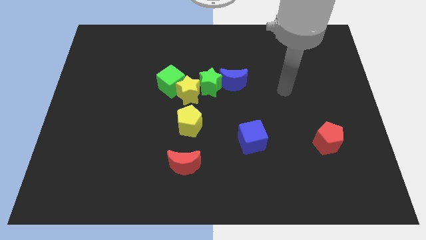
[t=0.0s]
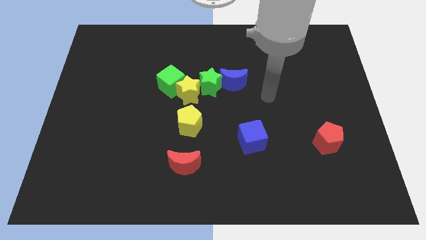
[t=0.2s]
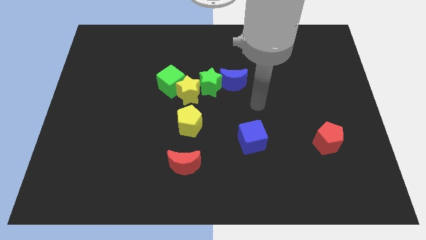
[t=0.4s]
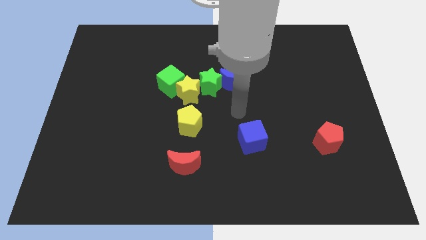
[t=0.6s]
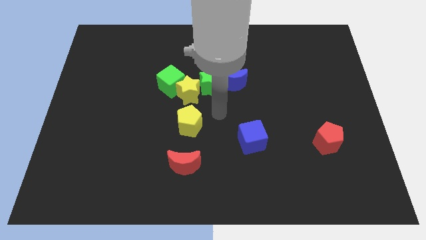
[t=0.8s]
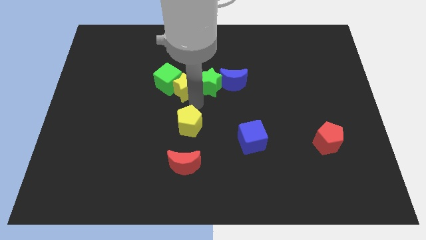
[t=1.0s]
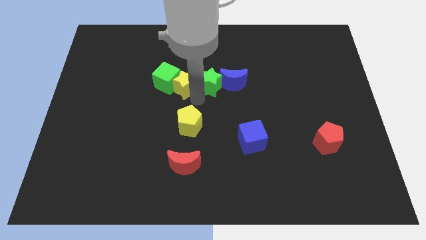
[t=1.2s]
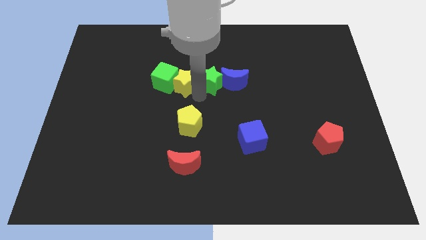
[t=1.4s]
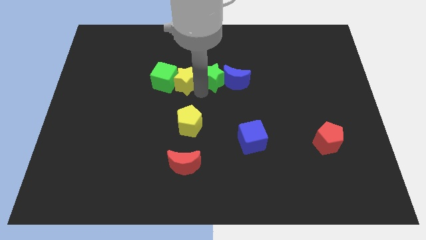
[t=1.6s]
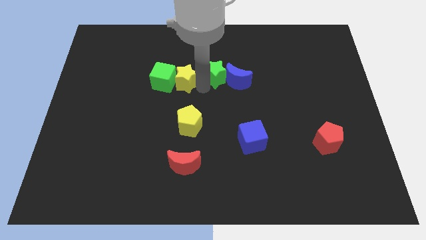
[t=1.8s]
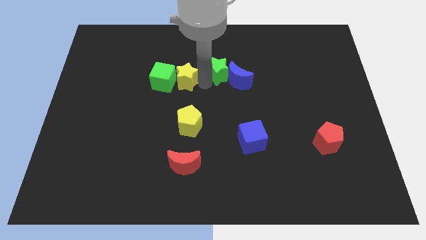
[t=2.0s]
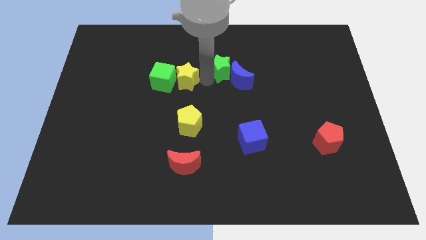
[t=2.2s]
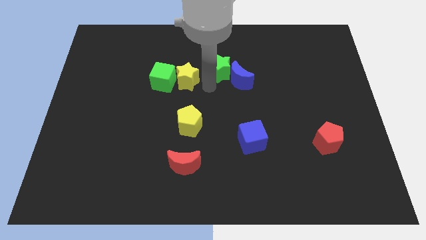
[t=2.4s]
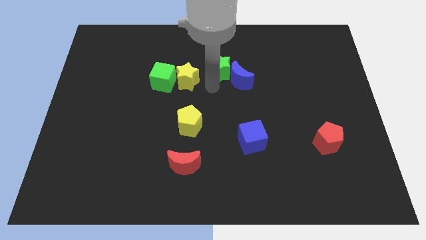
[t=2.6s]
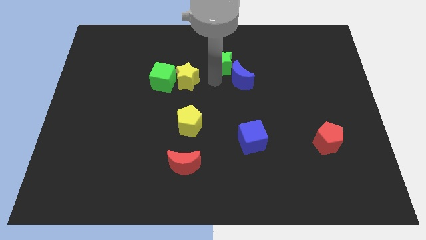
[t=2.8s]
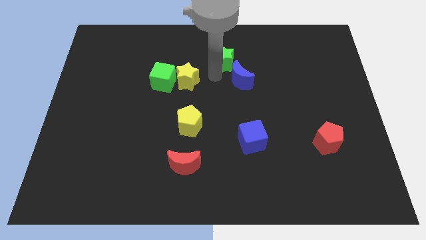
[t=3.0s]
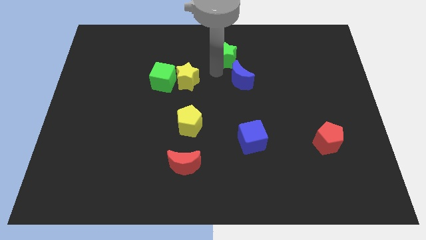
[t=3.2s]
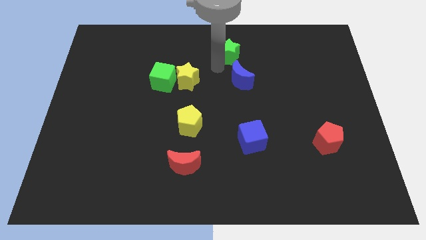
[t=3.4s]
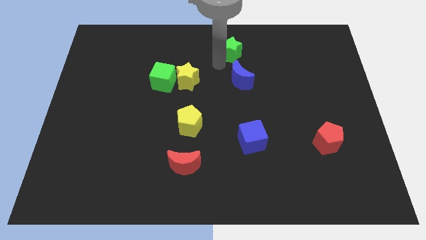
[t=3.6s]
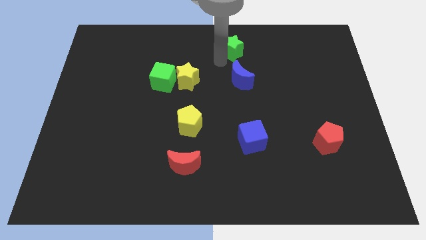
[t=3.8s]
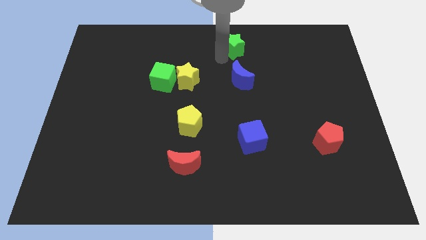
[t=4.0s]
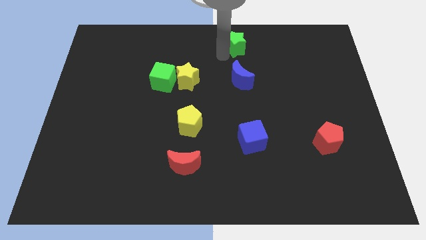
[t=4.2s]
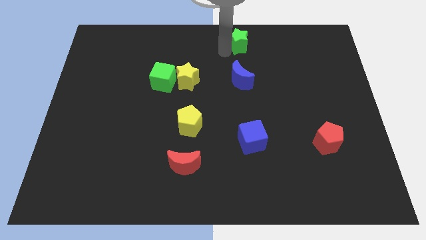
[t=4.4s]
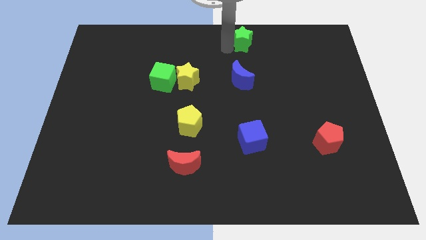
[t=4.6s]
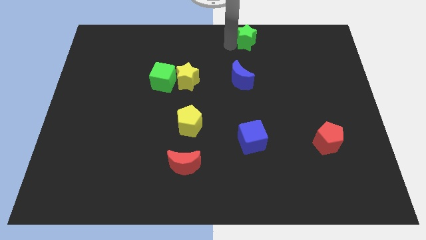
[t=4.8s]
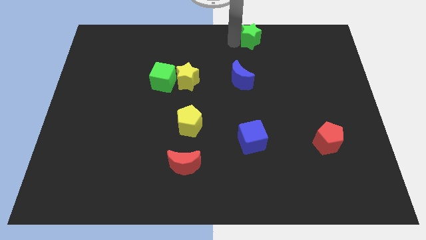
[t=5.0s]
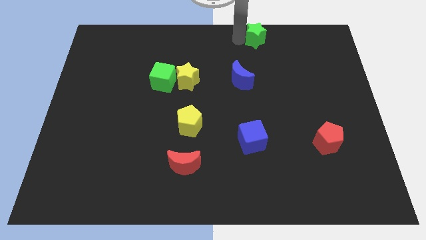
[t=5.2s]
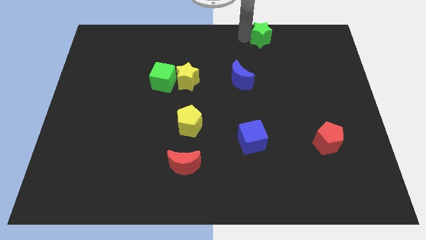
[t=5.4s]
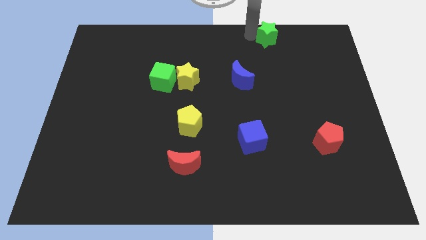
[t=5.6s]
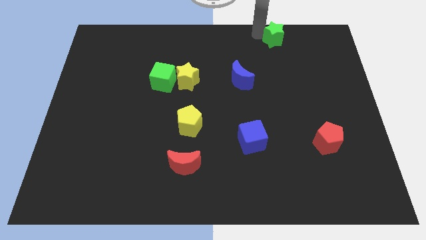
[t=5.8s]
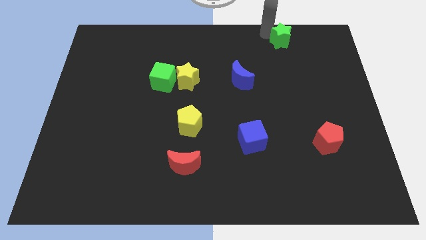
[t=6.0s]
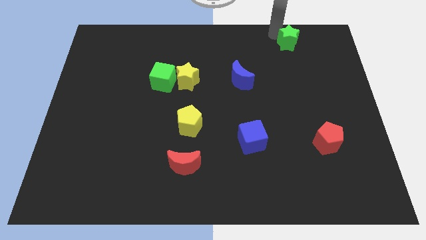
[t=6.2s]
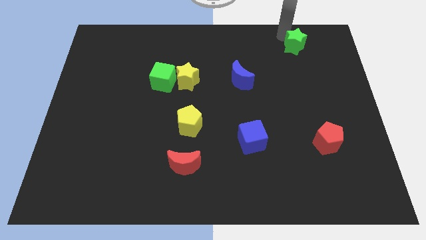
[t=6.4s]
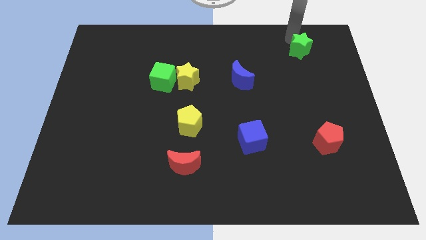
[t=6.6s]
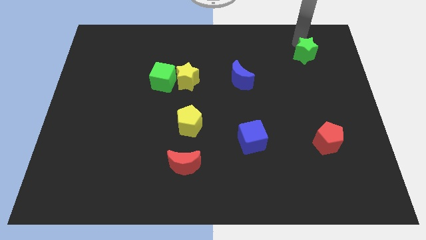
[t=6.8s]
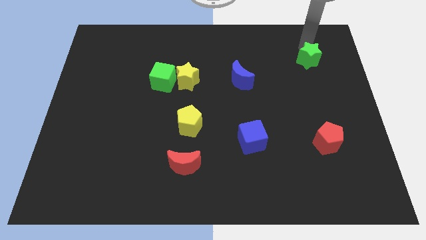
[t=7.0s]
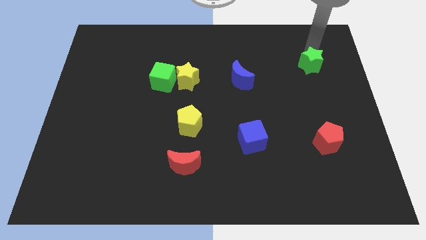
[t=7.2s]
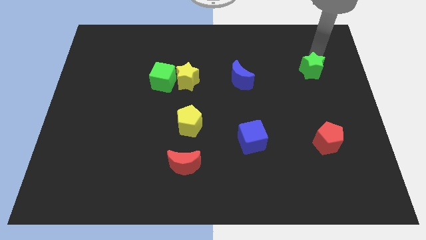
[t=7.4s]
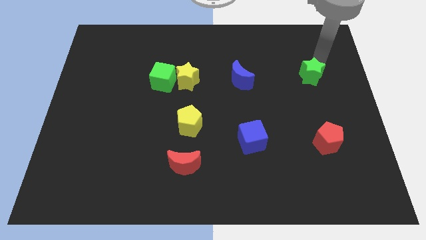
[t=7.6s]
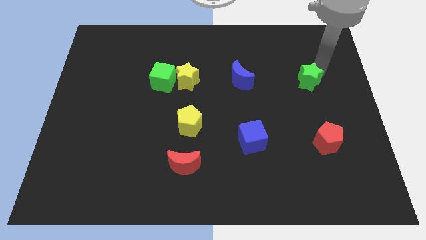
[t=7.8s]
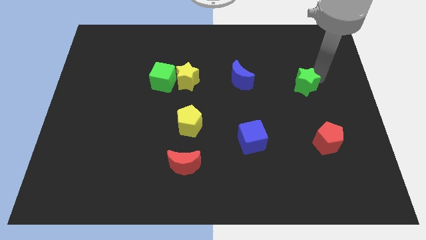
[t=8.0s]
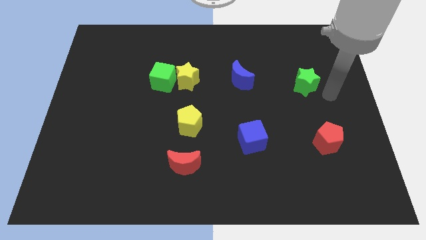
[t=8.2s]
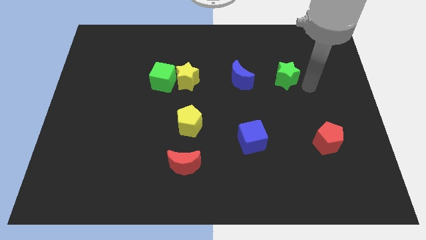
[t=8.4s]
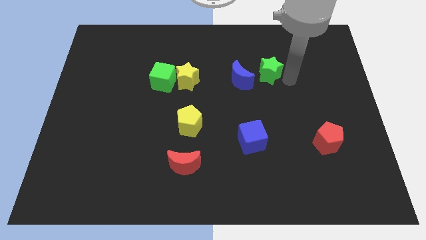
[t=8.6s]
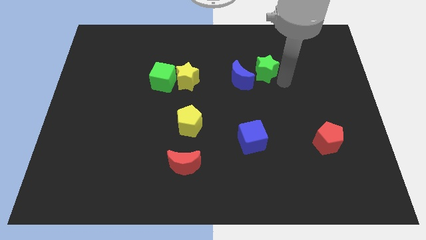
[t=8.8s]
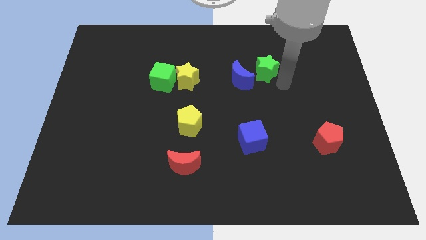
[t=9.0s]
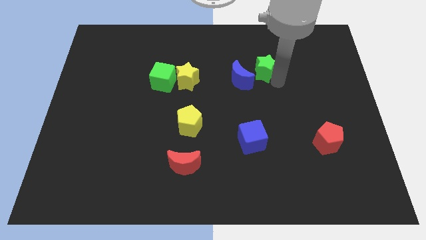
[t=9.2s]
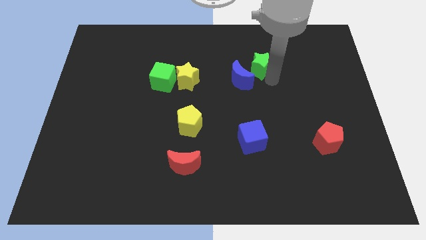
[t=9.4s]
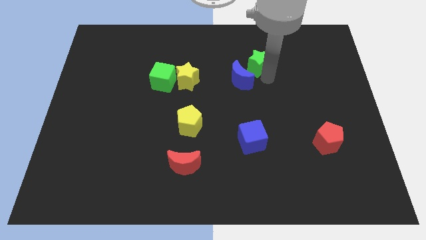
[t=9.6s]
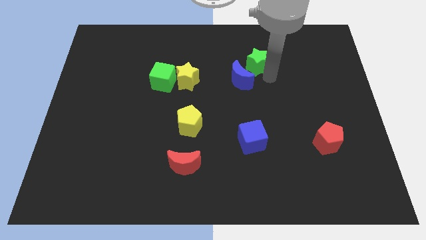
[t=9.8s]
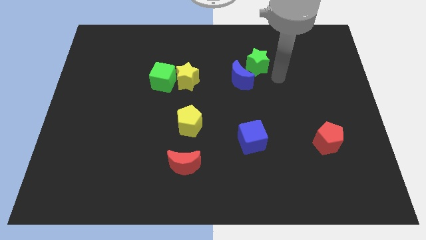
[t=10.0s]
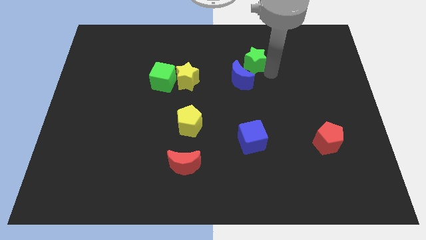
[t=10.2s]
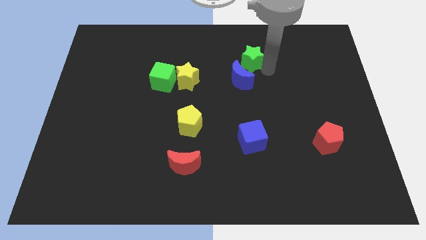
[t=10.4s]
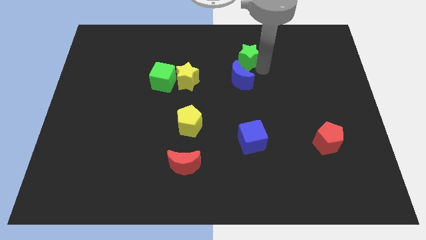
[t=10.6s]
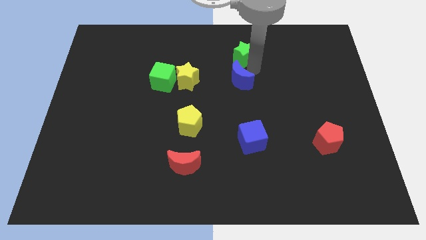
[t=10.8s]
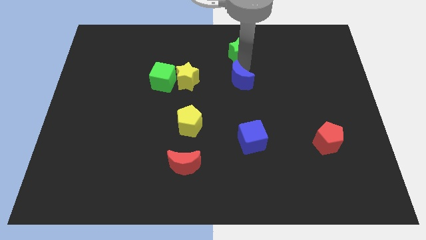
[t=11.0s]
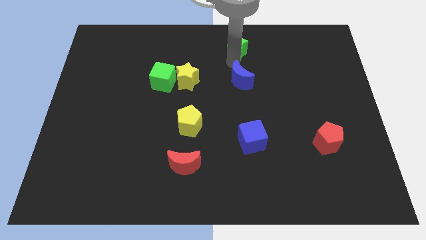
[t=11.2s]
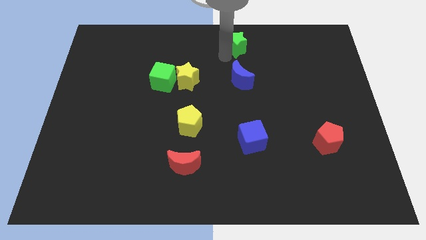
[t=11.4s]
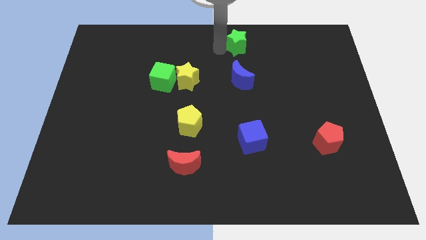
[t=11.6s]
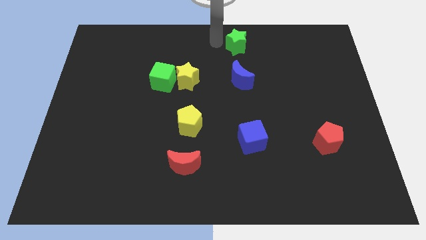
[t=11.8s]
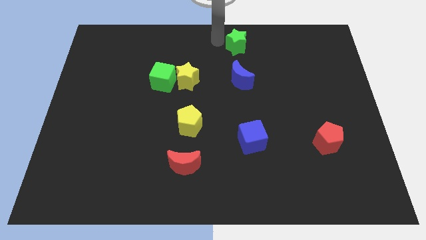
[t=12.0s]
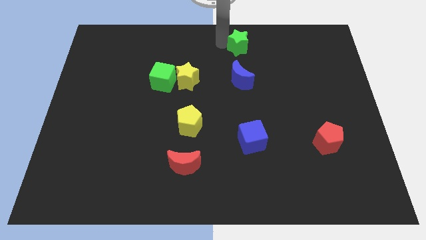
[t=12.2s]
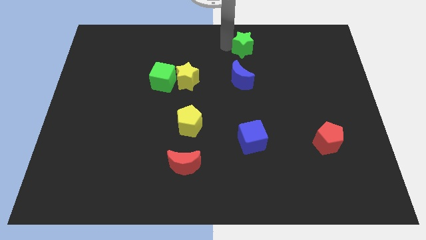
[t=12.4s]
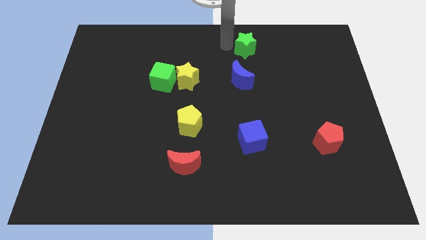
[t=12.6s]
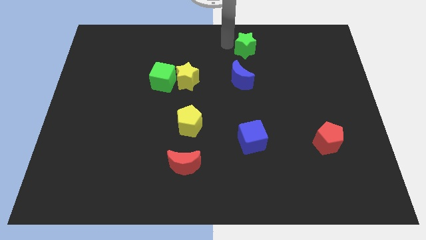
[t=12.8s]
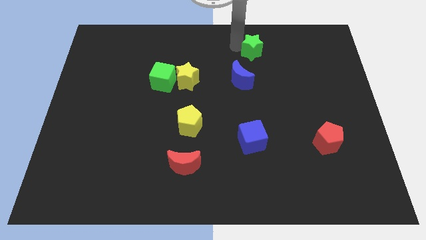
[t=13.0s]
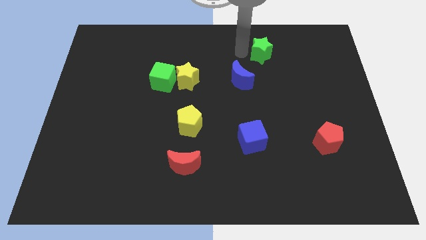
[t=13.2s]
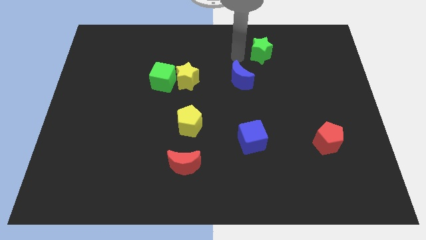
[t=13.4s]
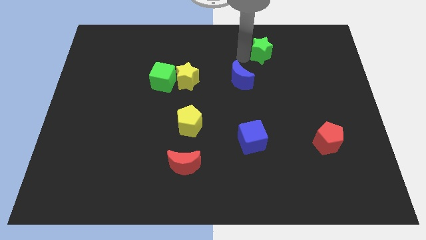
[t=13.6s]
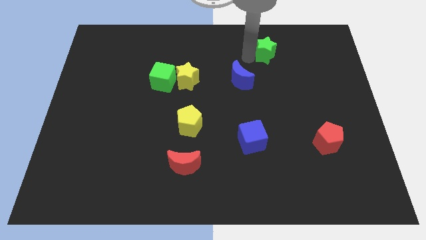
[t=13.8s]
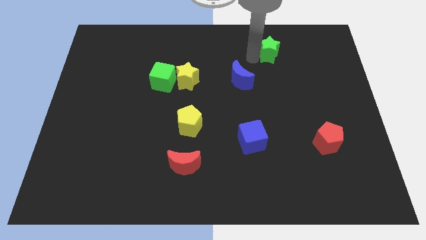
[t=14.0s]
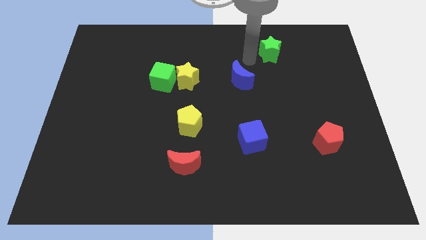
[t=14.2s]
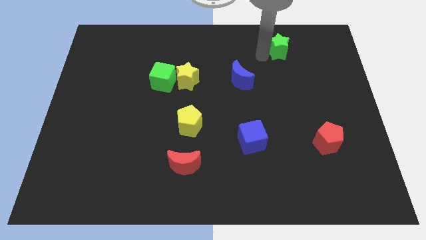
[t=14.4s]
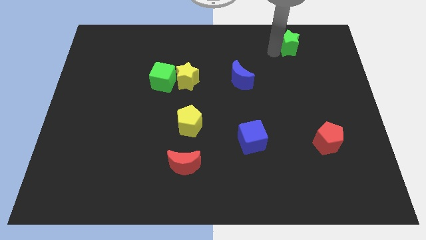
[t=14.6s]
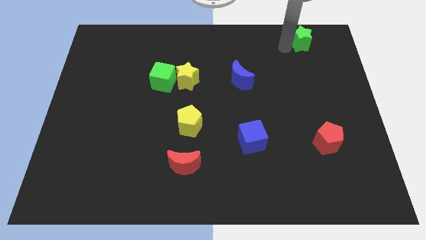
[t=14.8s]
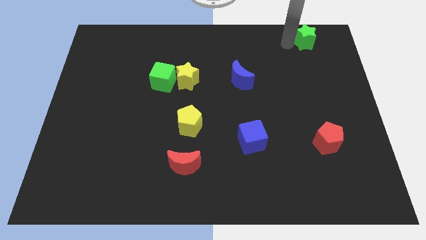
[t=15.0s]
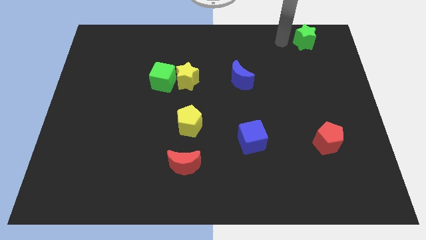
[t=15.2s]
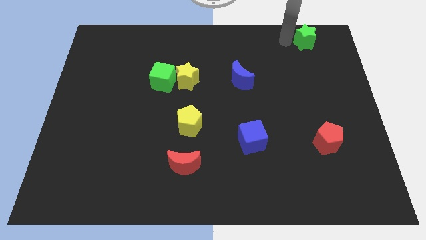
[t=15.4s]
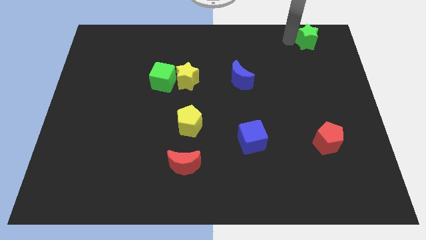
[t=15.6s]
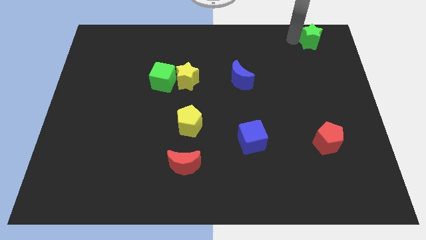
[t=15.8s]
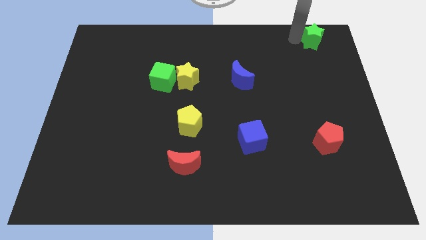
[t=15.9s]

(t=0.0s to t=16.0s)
put the green star to the upper right corner
